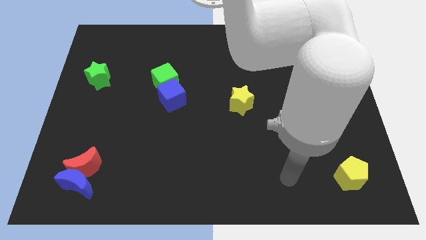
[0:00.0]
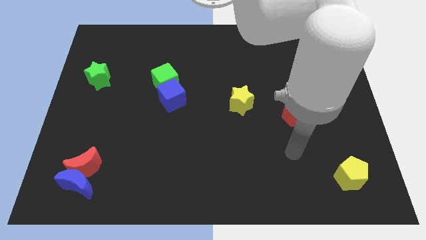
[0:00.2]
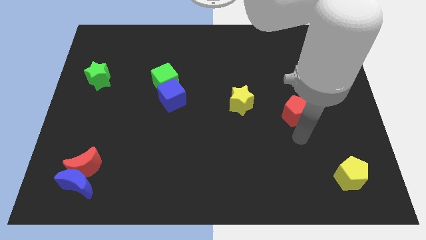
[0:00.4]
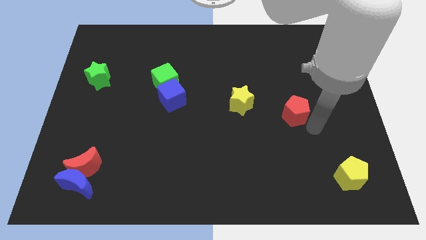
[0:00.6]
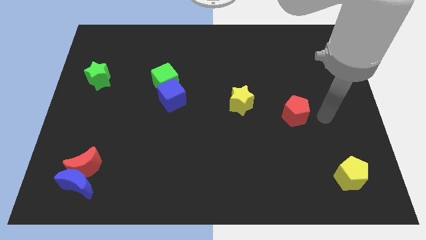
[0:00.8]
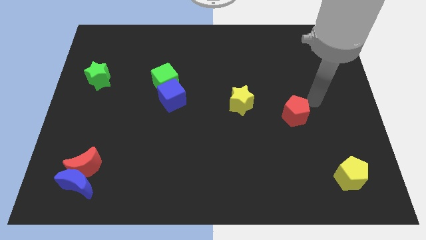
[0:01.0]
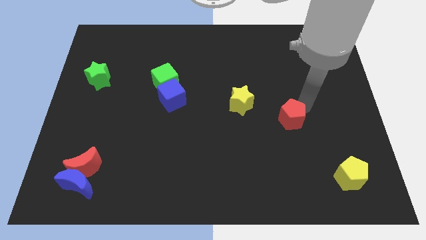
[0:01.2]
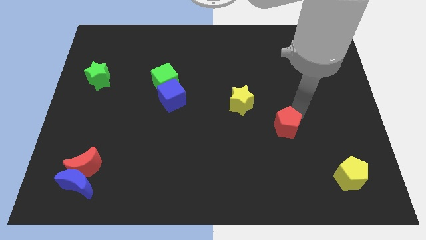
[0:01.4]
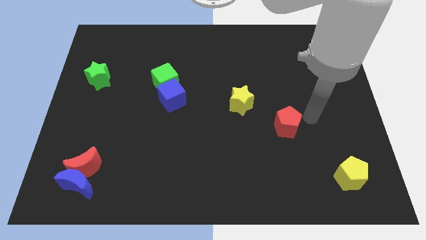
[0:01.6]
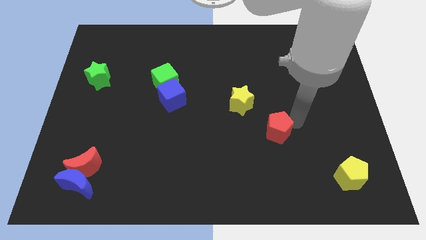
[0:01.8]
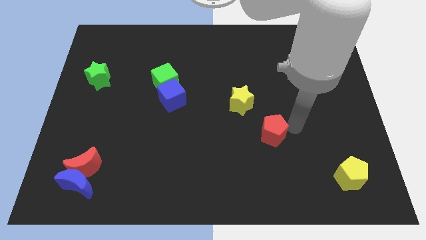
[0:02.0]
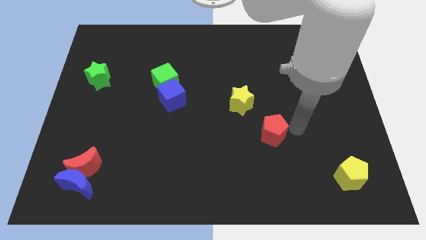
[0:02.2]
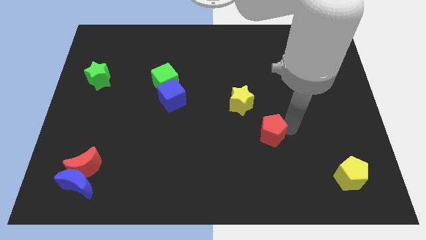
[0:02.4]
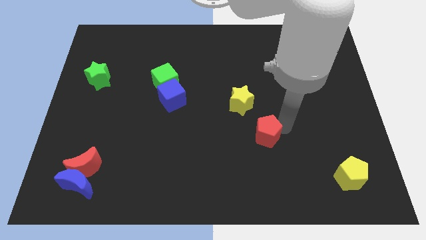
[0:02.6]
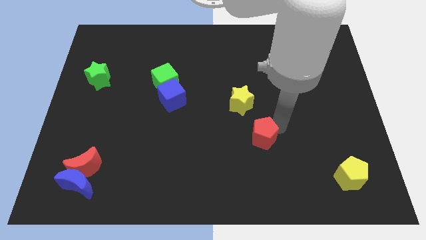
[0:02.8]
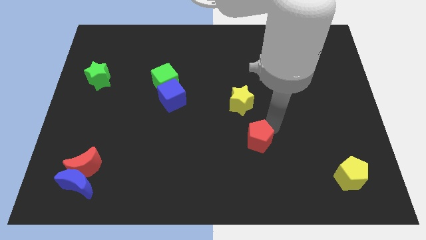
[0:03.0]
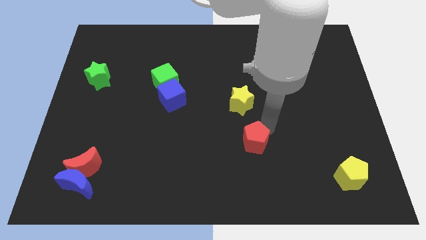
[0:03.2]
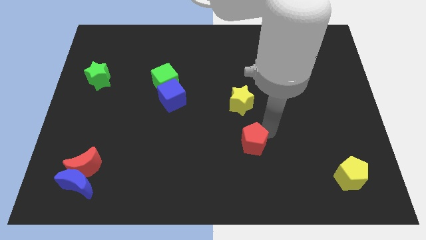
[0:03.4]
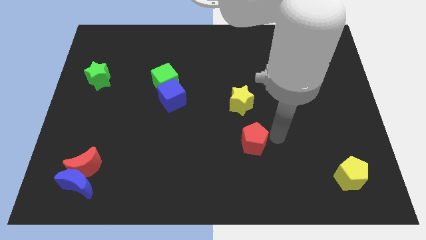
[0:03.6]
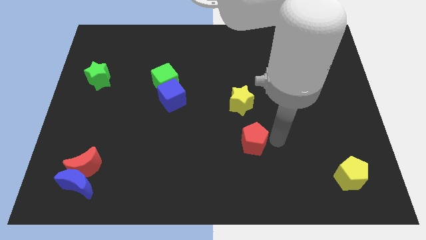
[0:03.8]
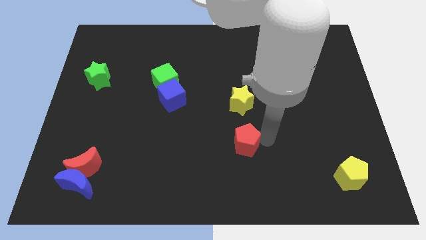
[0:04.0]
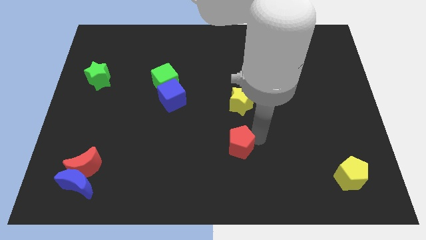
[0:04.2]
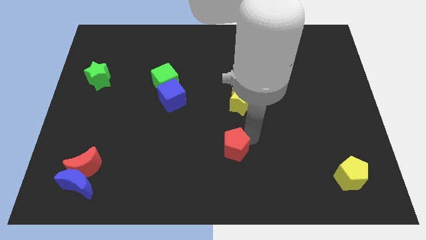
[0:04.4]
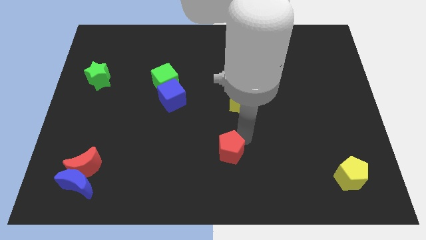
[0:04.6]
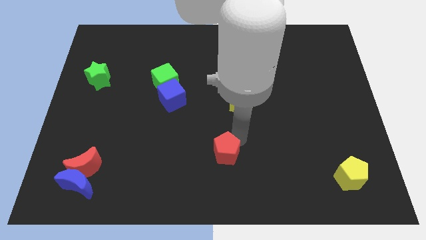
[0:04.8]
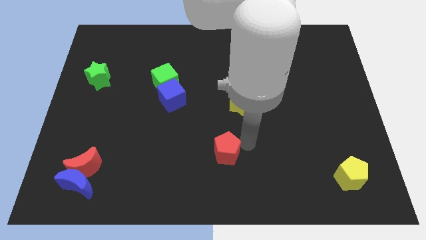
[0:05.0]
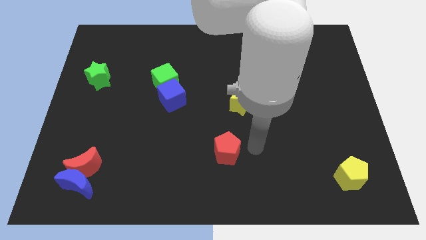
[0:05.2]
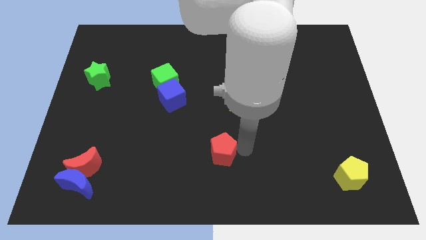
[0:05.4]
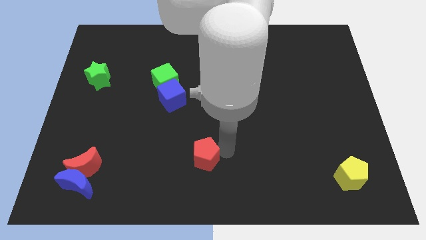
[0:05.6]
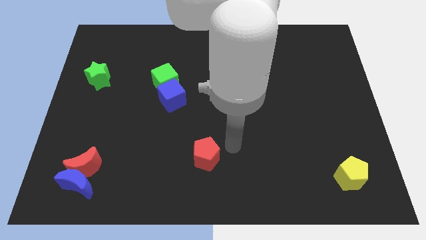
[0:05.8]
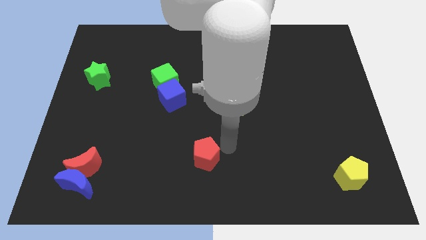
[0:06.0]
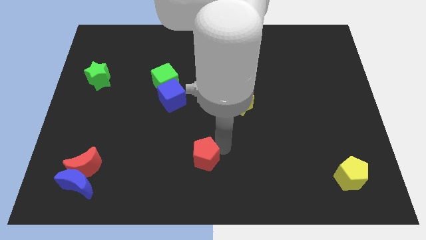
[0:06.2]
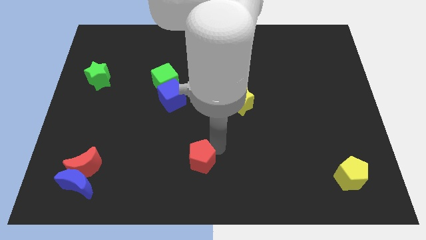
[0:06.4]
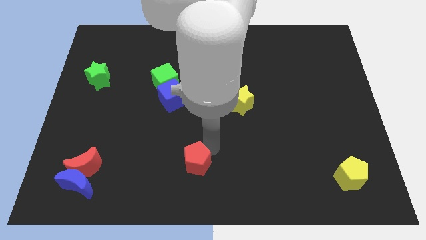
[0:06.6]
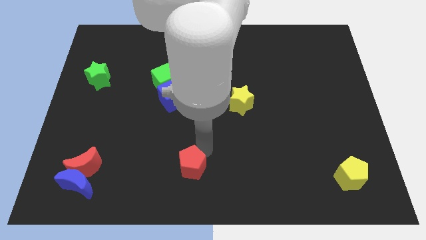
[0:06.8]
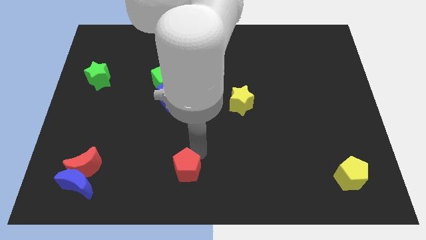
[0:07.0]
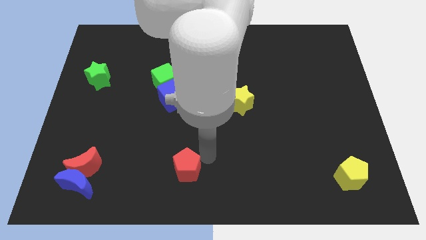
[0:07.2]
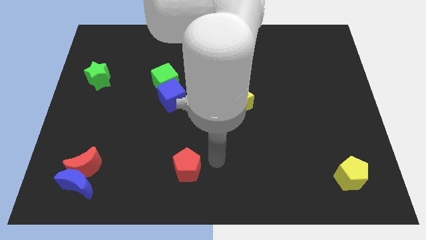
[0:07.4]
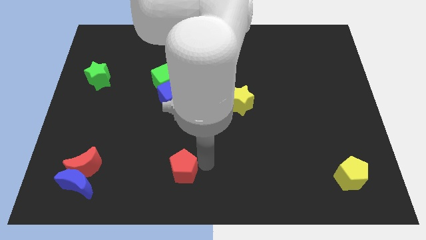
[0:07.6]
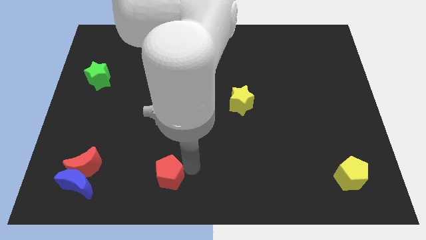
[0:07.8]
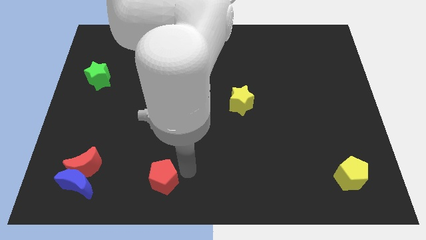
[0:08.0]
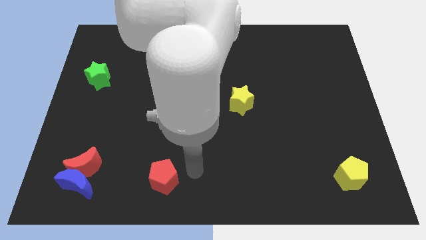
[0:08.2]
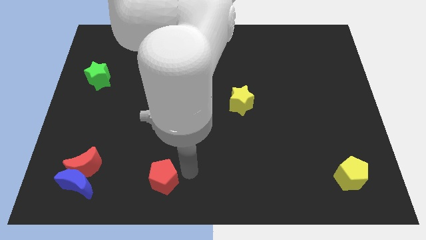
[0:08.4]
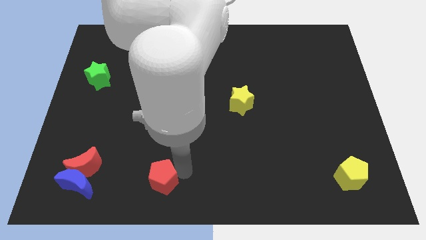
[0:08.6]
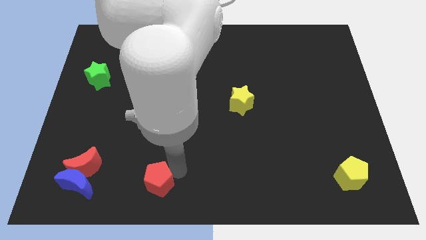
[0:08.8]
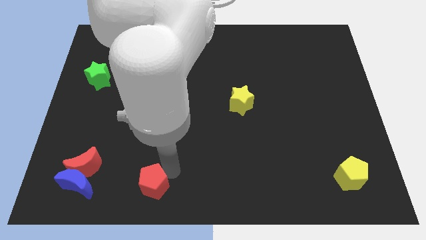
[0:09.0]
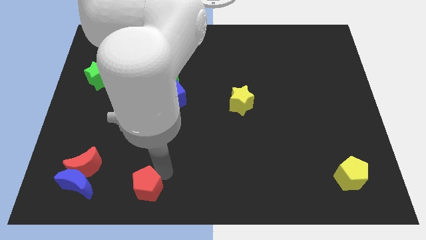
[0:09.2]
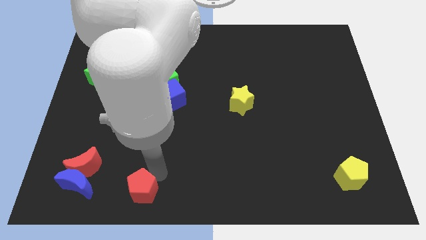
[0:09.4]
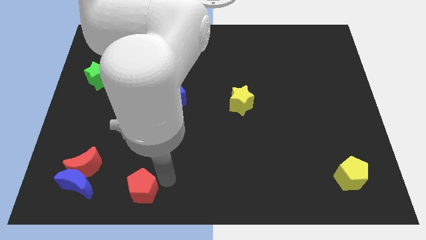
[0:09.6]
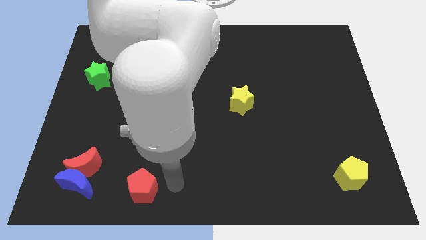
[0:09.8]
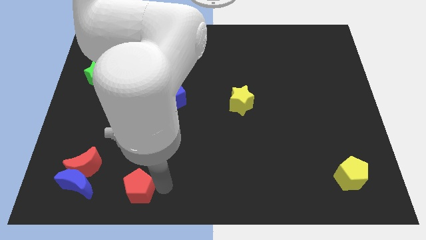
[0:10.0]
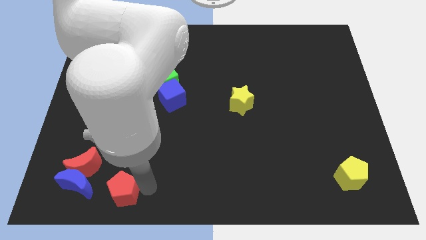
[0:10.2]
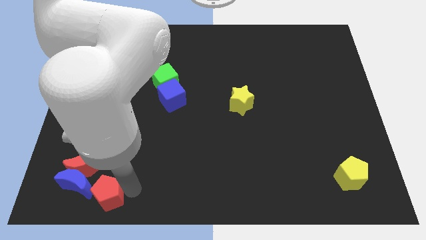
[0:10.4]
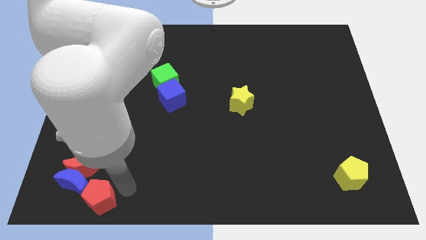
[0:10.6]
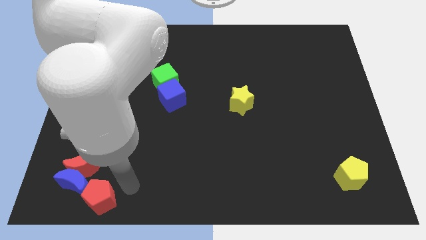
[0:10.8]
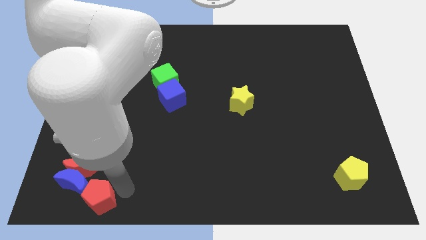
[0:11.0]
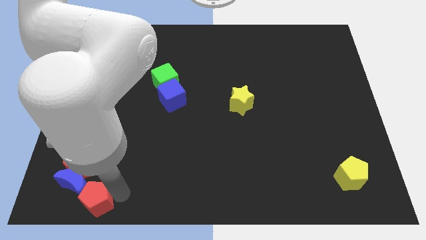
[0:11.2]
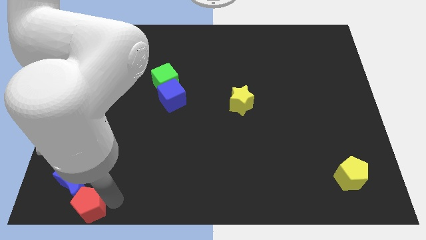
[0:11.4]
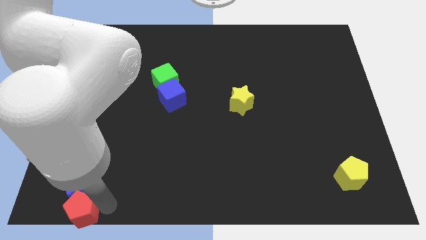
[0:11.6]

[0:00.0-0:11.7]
move the red pentagon to the bottom left of the board
